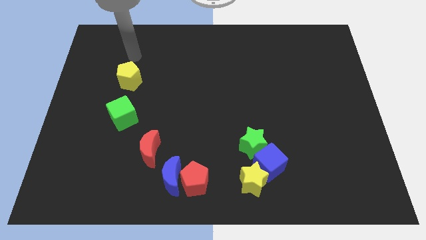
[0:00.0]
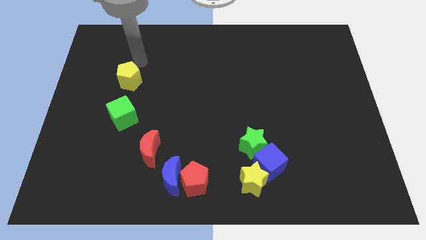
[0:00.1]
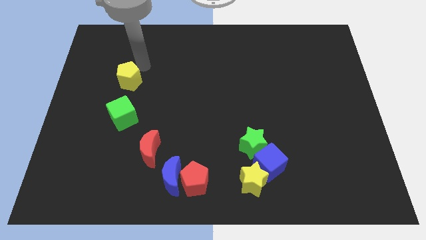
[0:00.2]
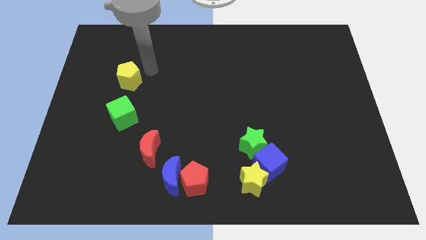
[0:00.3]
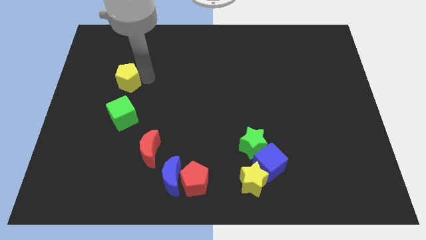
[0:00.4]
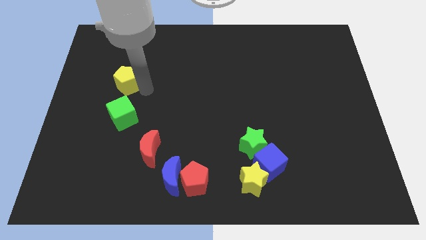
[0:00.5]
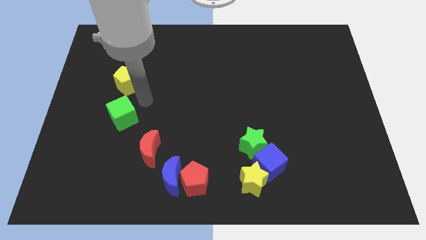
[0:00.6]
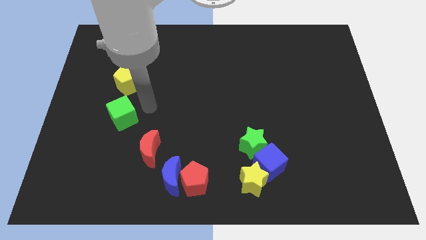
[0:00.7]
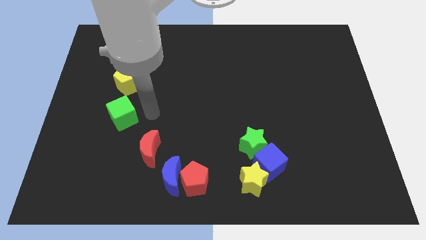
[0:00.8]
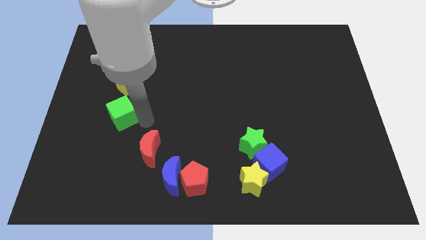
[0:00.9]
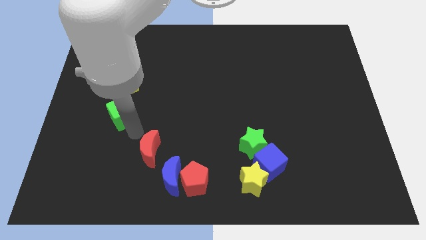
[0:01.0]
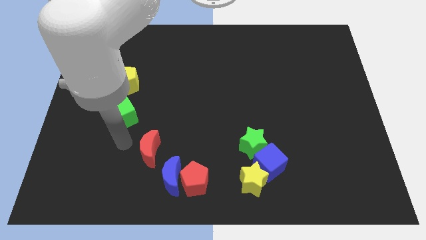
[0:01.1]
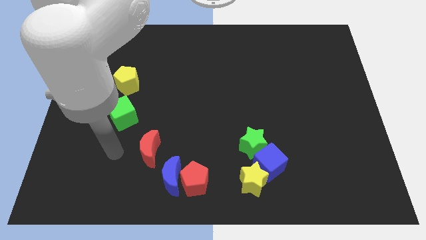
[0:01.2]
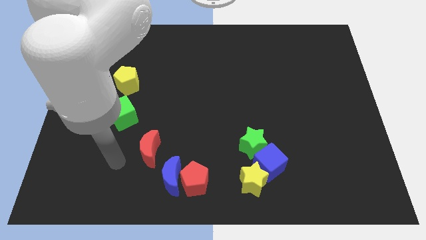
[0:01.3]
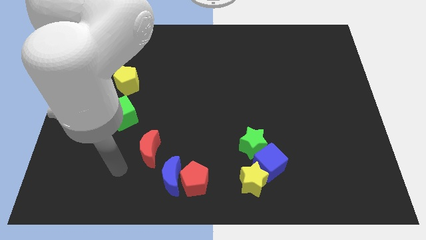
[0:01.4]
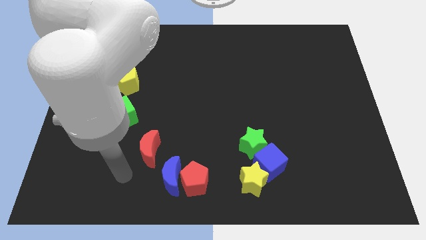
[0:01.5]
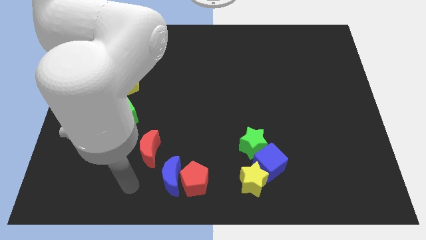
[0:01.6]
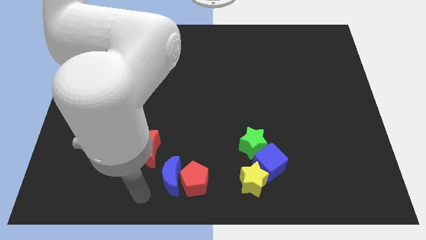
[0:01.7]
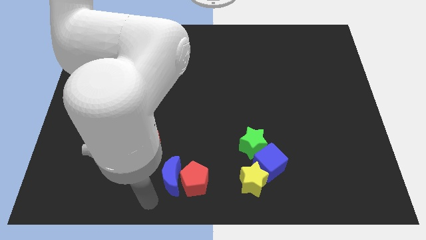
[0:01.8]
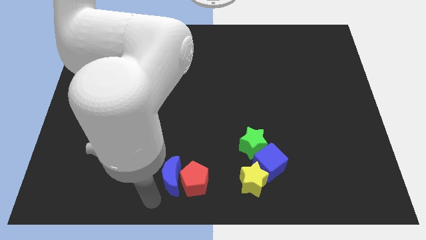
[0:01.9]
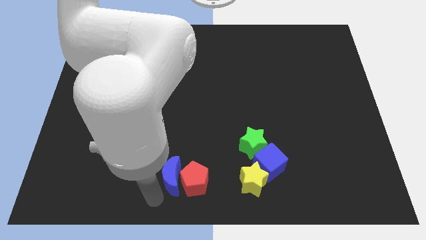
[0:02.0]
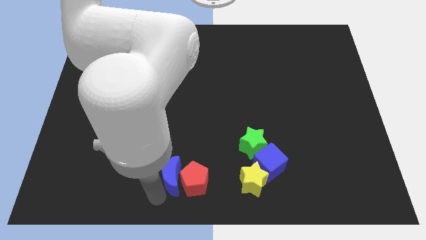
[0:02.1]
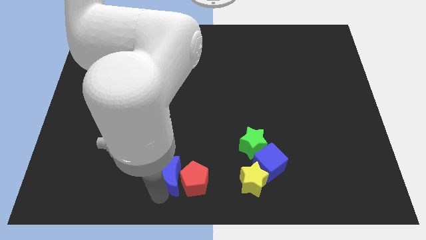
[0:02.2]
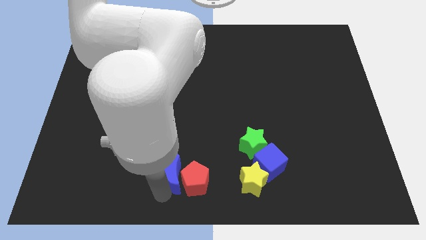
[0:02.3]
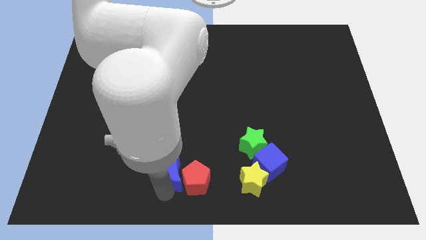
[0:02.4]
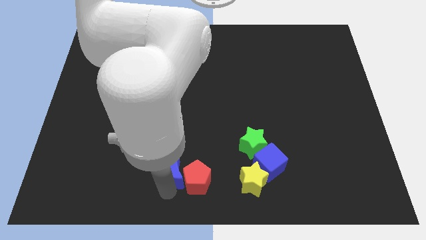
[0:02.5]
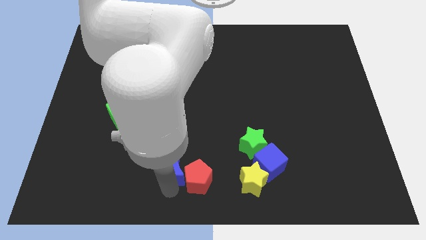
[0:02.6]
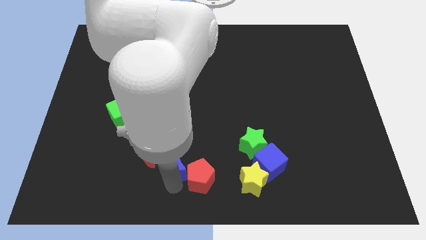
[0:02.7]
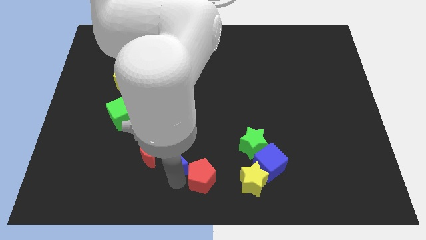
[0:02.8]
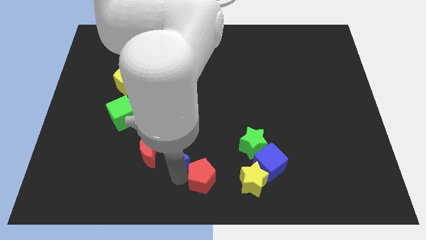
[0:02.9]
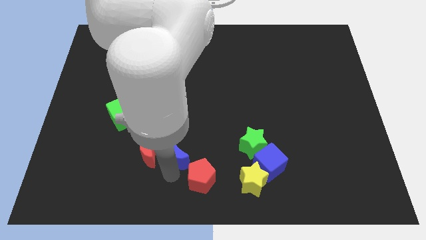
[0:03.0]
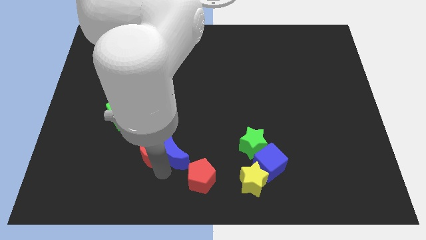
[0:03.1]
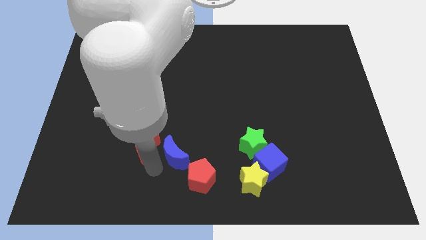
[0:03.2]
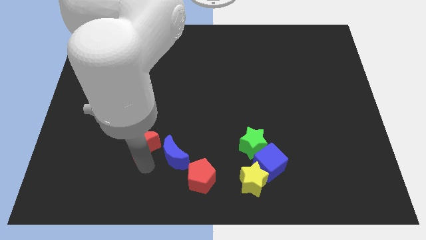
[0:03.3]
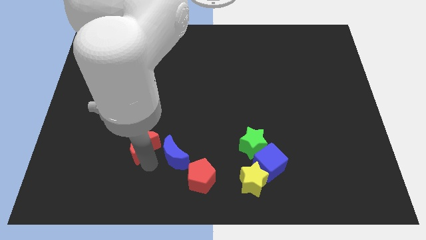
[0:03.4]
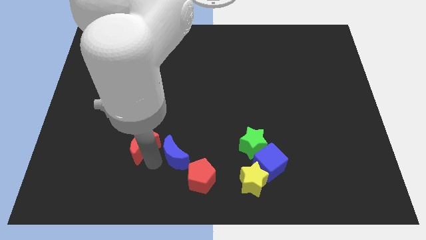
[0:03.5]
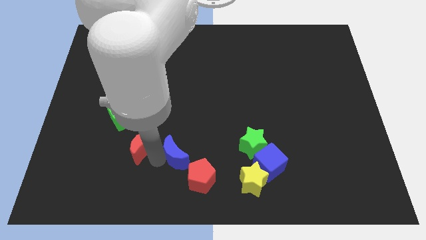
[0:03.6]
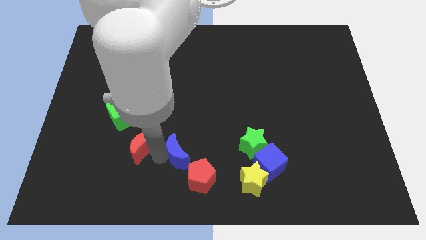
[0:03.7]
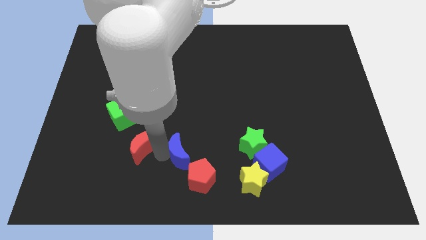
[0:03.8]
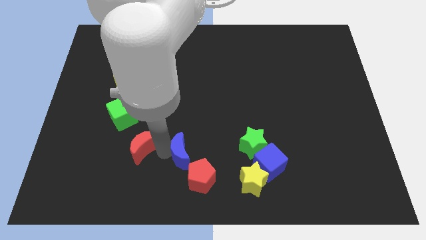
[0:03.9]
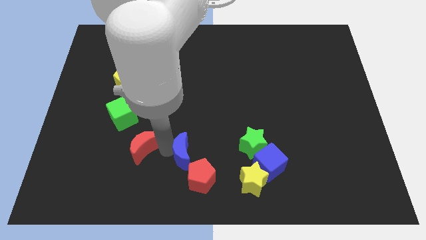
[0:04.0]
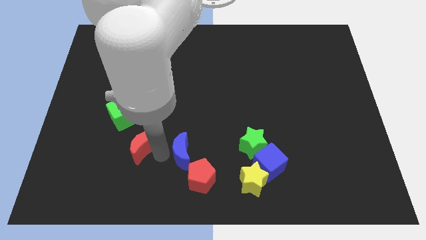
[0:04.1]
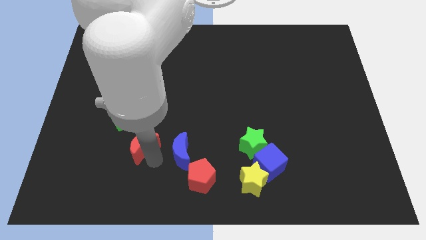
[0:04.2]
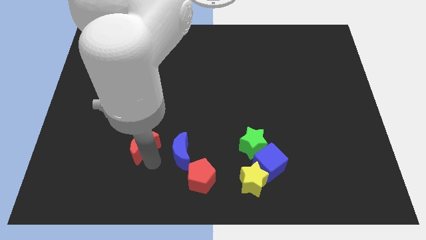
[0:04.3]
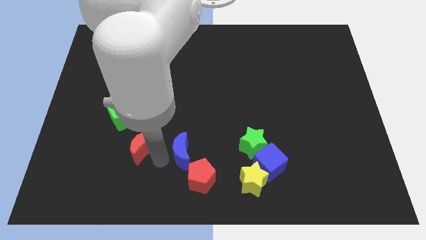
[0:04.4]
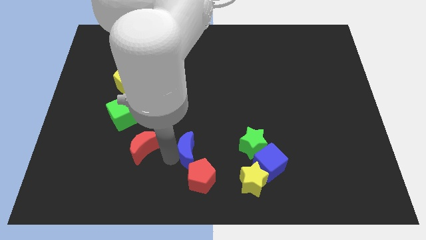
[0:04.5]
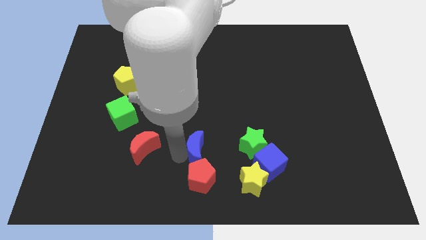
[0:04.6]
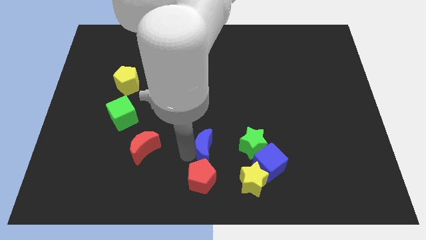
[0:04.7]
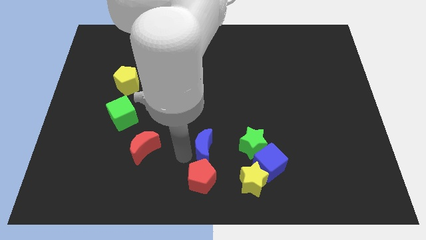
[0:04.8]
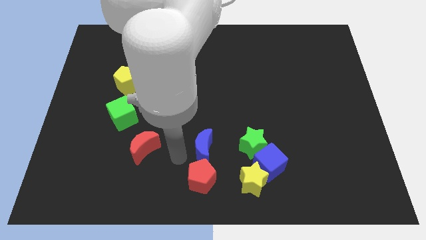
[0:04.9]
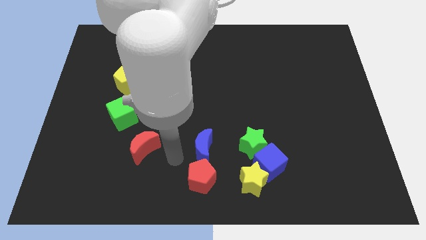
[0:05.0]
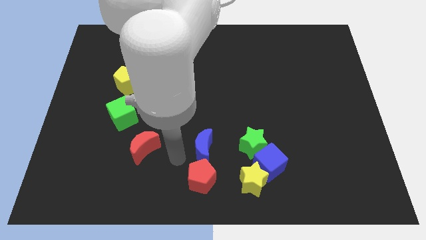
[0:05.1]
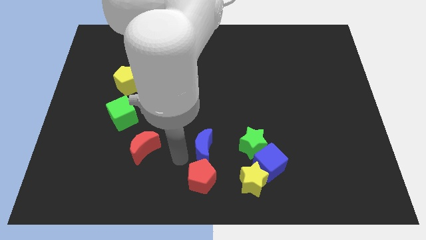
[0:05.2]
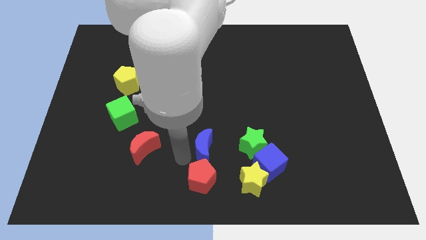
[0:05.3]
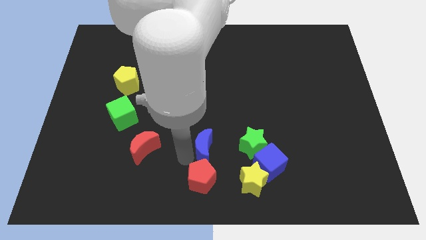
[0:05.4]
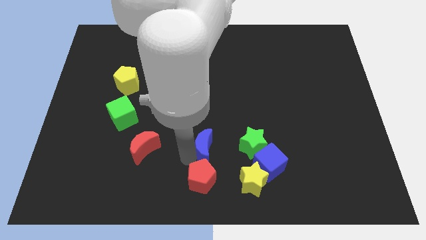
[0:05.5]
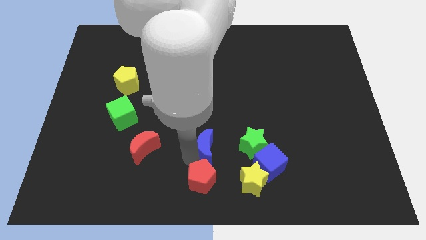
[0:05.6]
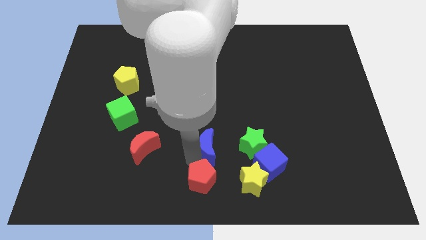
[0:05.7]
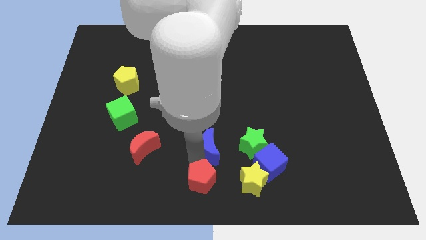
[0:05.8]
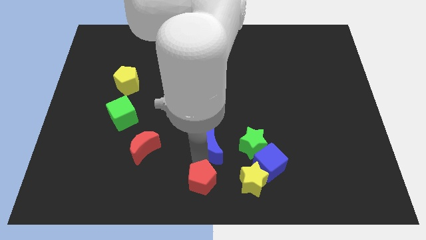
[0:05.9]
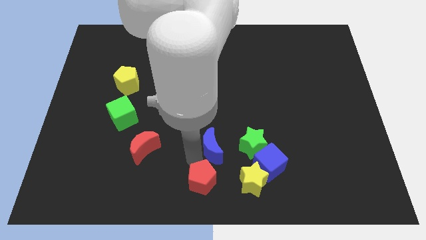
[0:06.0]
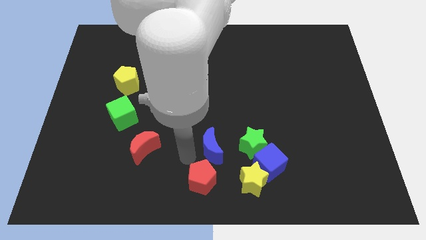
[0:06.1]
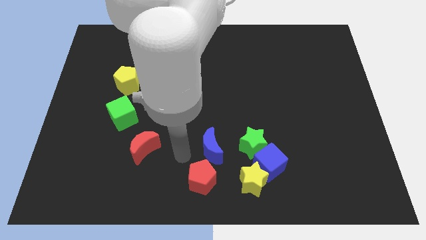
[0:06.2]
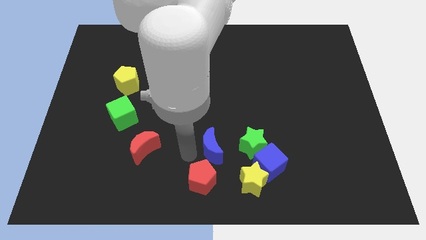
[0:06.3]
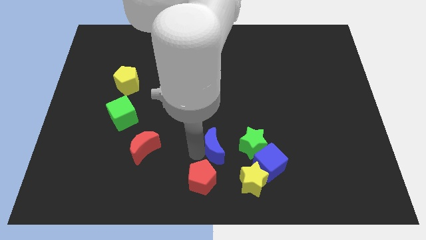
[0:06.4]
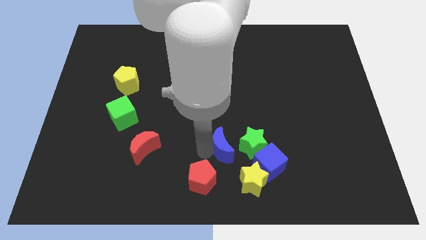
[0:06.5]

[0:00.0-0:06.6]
put the blue moon to the top left of the blue cube

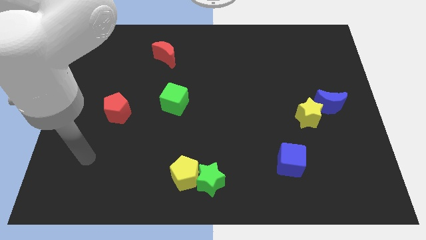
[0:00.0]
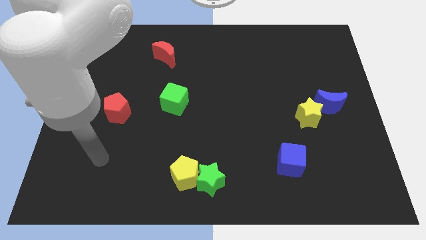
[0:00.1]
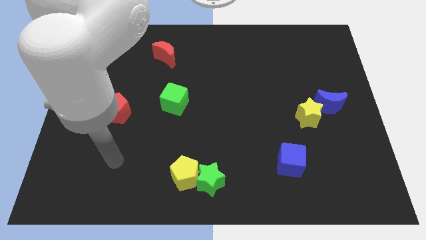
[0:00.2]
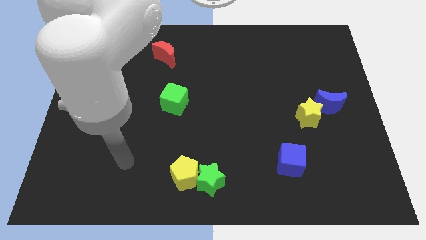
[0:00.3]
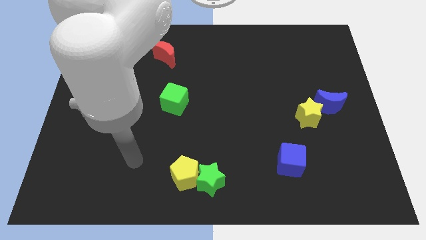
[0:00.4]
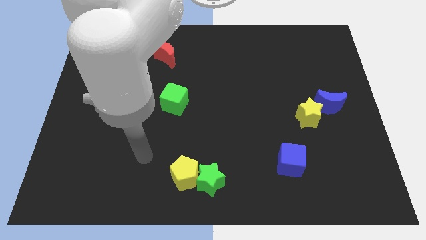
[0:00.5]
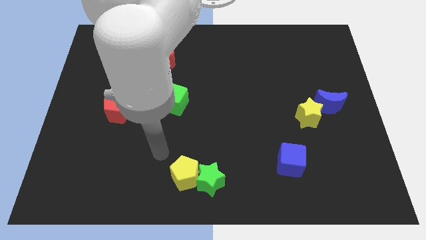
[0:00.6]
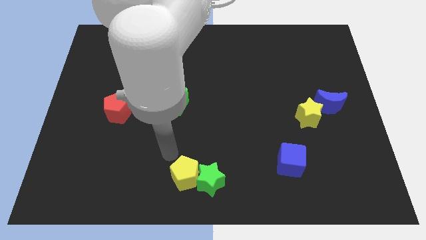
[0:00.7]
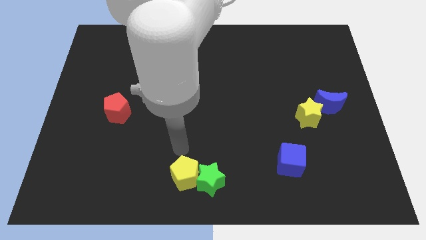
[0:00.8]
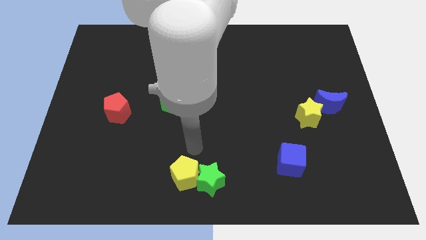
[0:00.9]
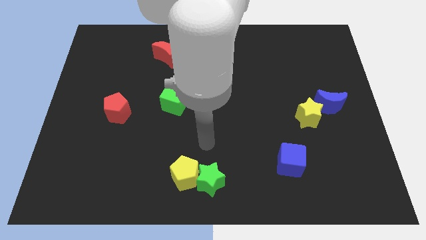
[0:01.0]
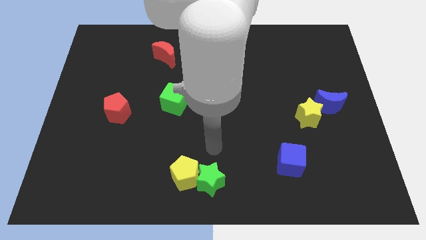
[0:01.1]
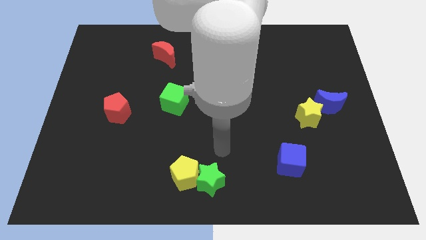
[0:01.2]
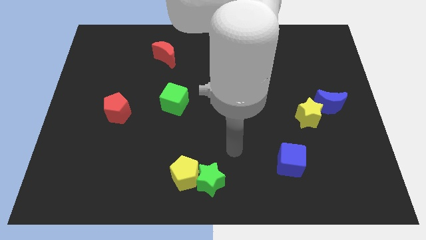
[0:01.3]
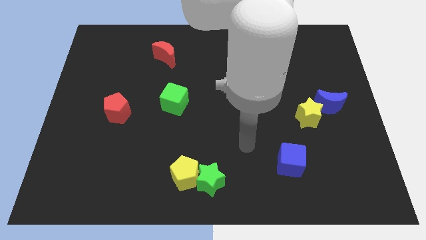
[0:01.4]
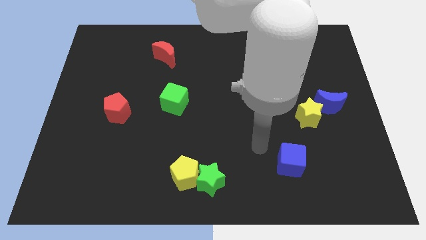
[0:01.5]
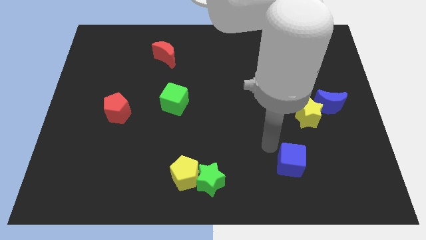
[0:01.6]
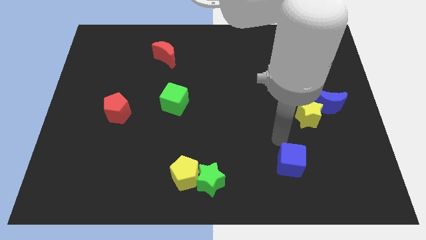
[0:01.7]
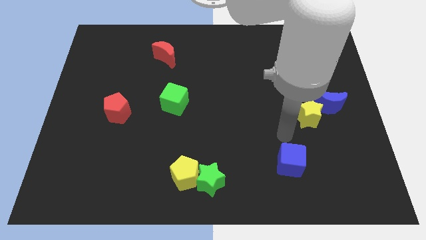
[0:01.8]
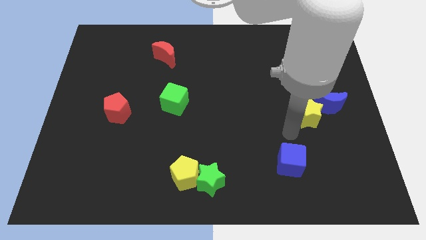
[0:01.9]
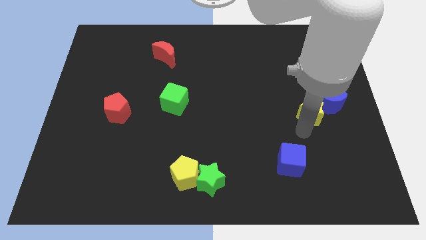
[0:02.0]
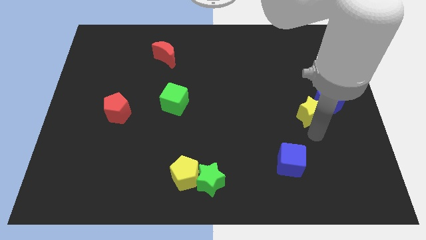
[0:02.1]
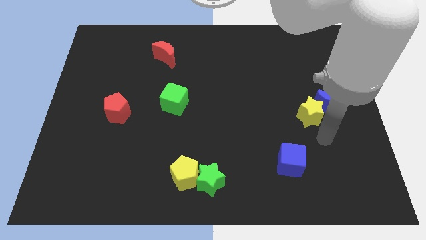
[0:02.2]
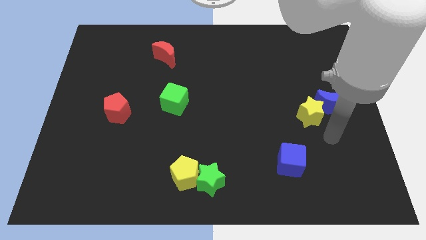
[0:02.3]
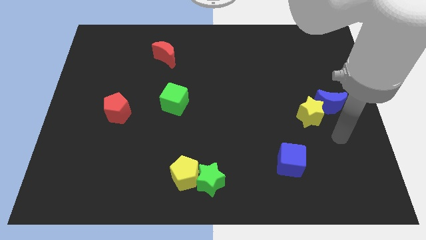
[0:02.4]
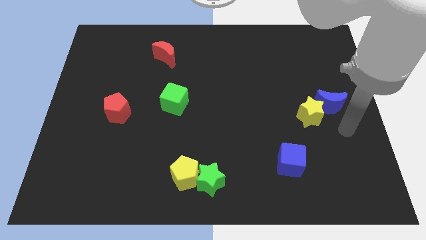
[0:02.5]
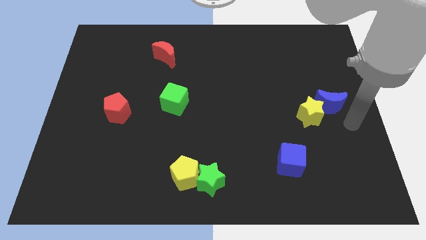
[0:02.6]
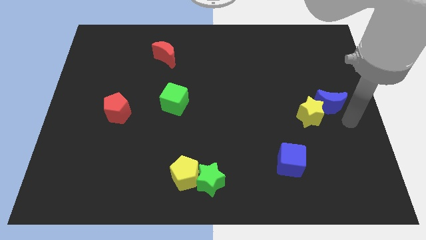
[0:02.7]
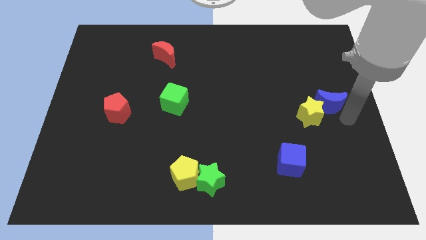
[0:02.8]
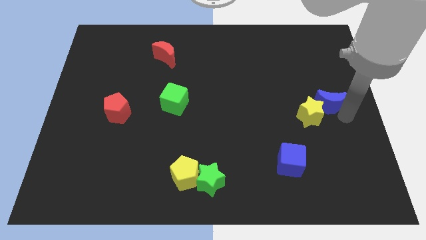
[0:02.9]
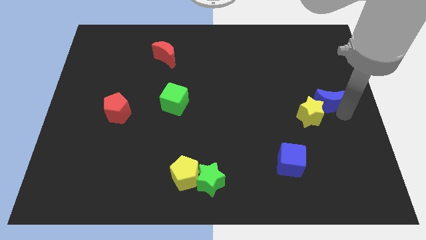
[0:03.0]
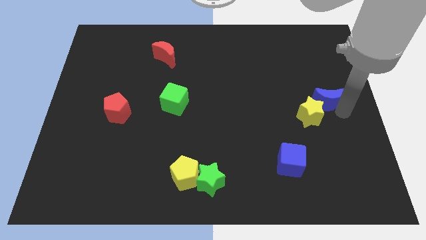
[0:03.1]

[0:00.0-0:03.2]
move the blue moon to the top side of the yellow star
